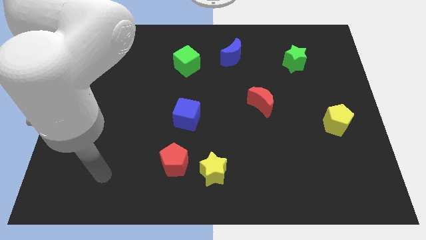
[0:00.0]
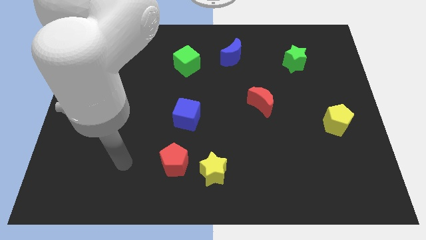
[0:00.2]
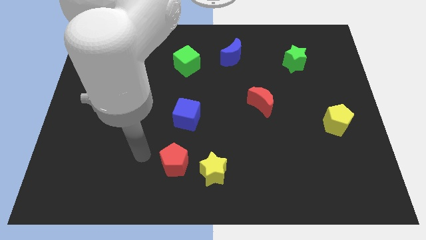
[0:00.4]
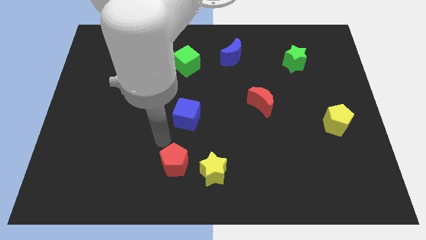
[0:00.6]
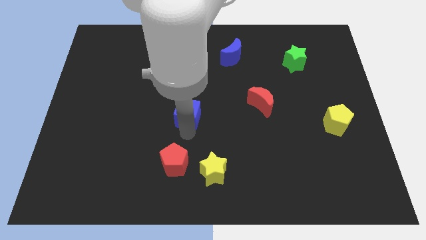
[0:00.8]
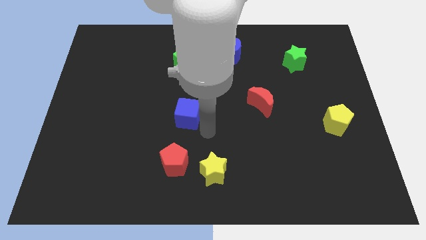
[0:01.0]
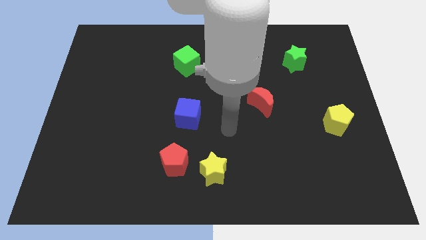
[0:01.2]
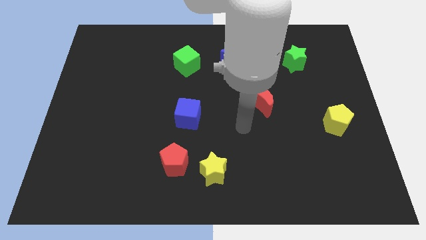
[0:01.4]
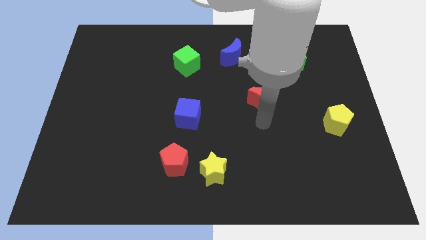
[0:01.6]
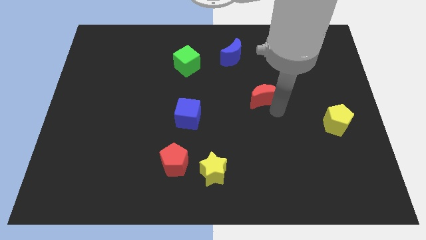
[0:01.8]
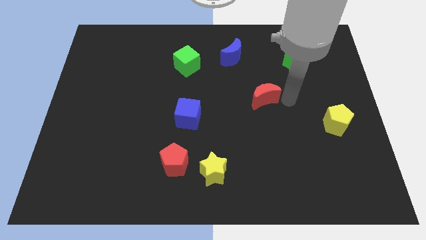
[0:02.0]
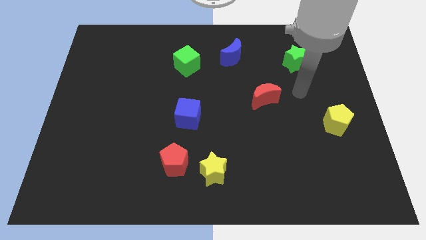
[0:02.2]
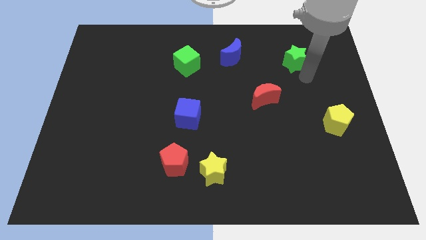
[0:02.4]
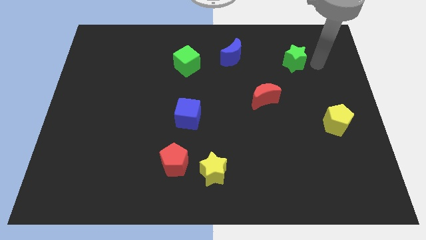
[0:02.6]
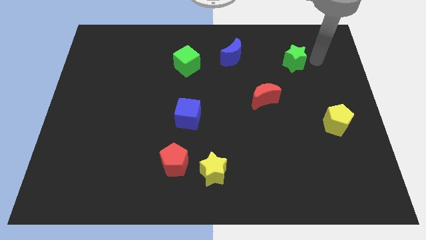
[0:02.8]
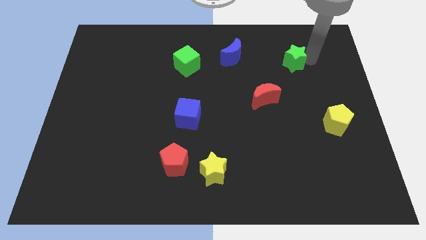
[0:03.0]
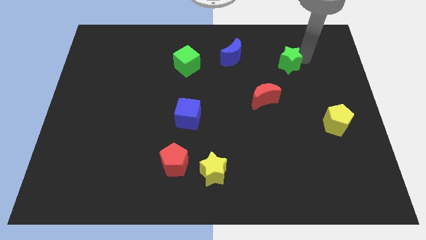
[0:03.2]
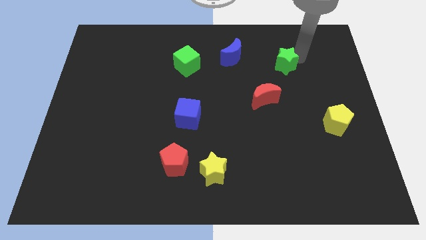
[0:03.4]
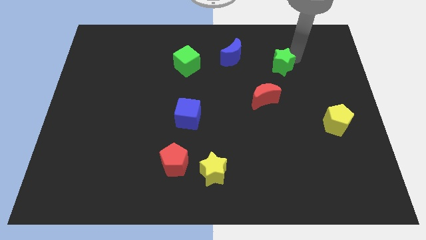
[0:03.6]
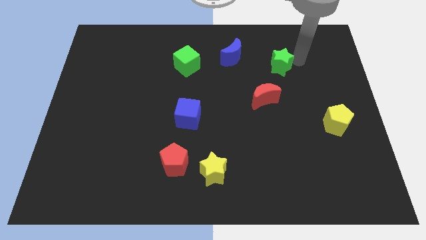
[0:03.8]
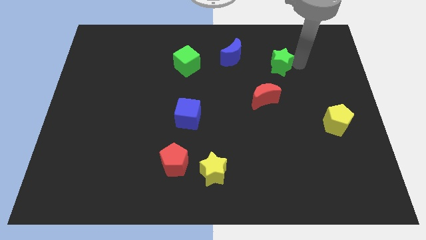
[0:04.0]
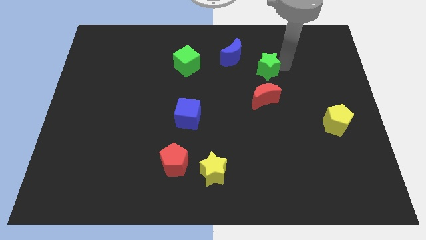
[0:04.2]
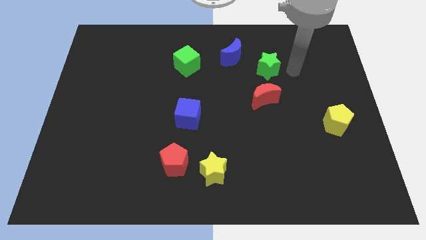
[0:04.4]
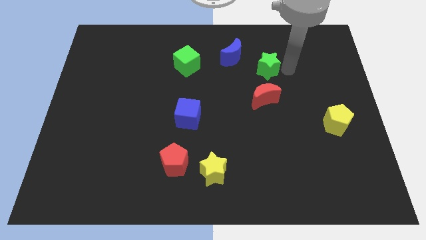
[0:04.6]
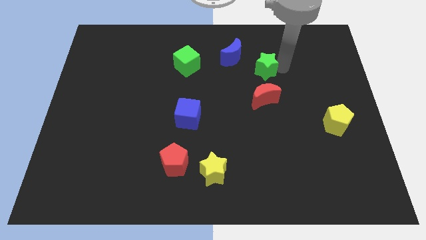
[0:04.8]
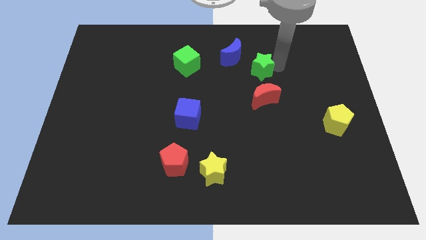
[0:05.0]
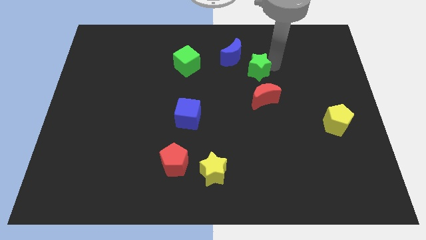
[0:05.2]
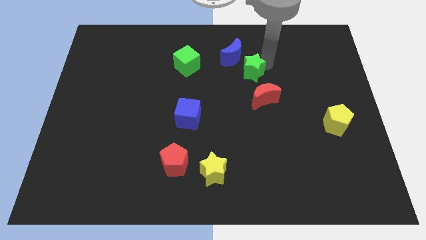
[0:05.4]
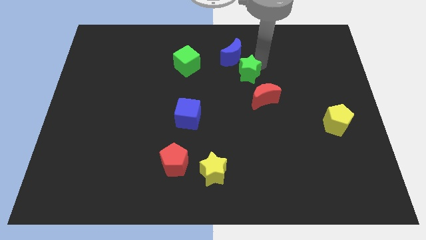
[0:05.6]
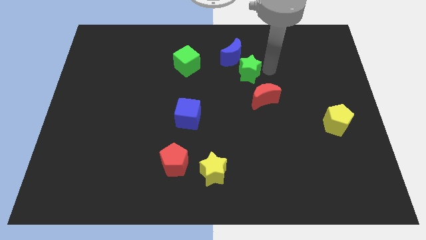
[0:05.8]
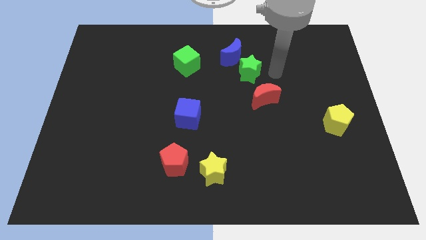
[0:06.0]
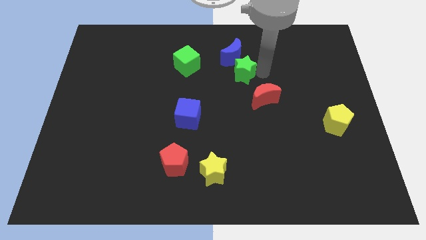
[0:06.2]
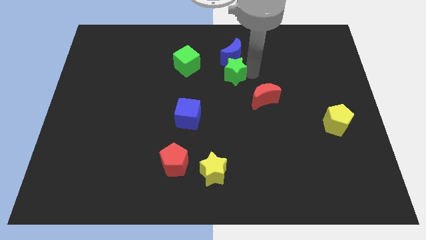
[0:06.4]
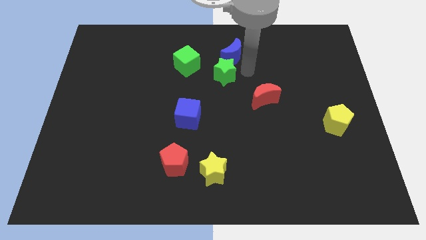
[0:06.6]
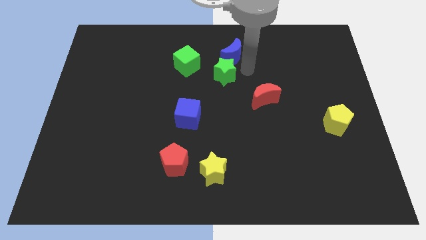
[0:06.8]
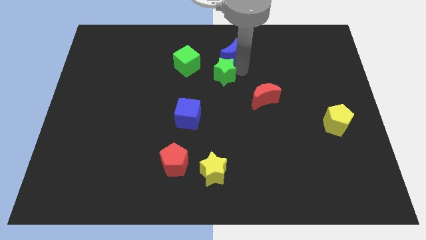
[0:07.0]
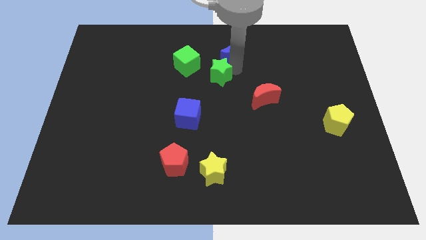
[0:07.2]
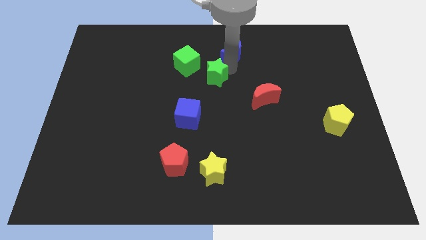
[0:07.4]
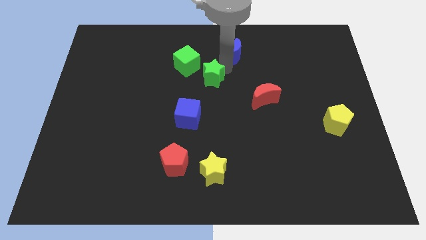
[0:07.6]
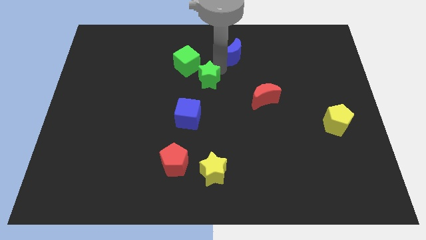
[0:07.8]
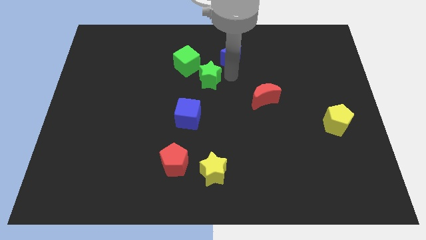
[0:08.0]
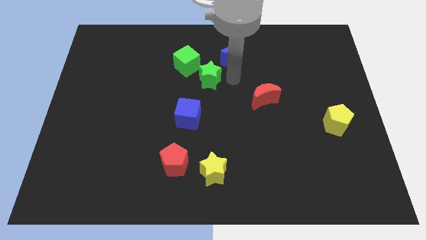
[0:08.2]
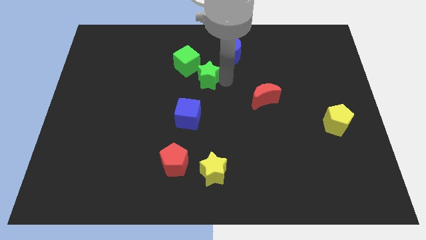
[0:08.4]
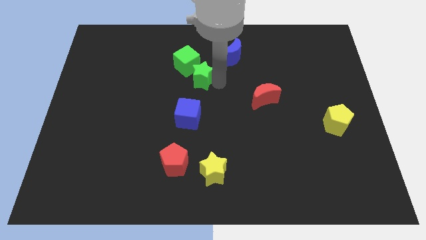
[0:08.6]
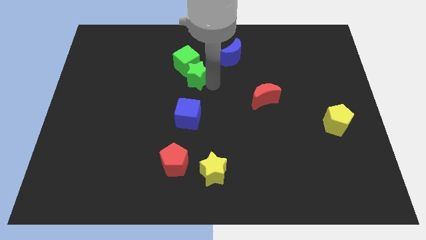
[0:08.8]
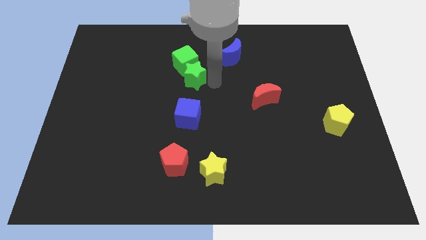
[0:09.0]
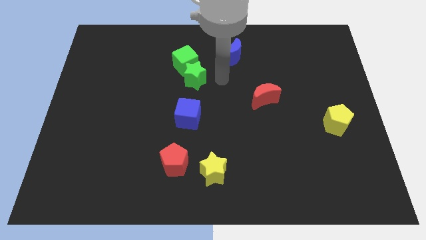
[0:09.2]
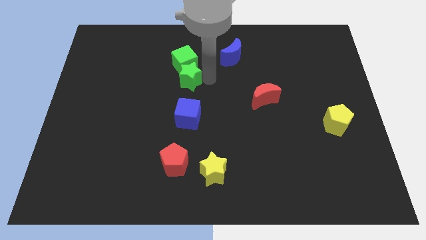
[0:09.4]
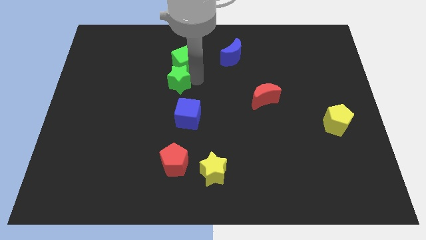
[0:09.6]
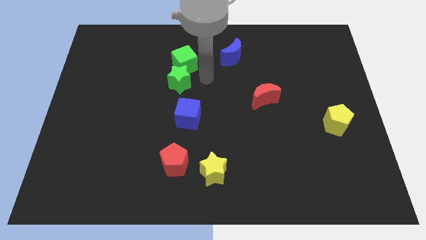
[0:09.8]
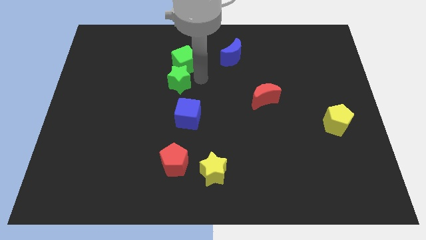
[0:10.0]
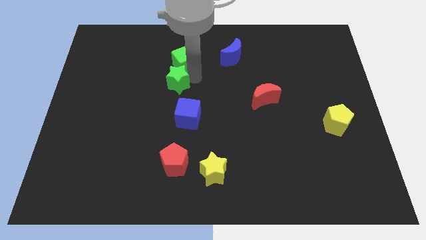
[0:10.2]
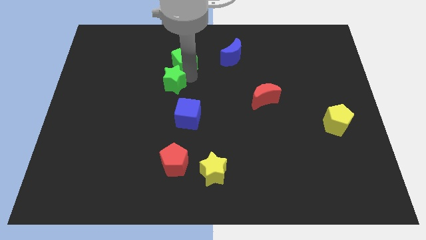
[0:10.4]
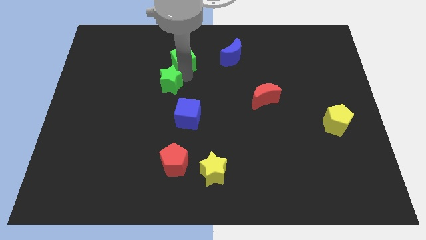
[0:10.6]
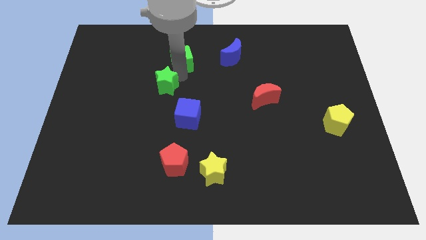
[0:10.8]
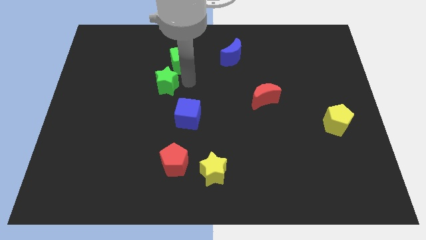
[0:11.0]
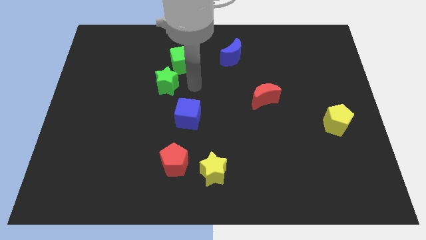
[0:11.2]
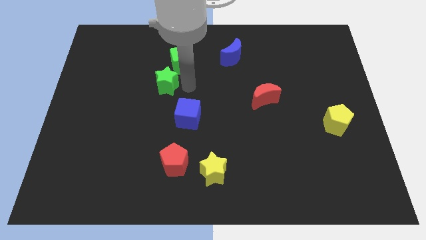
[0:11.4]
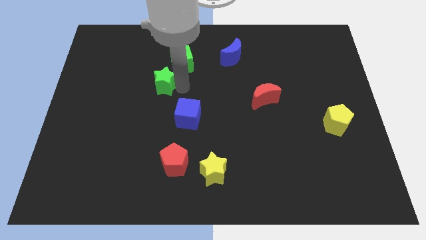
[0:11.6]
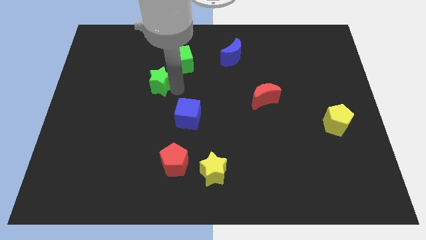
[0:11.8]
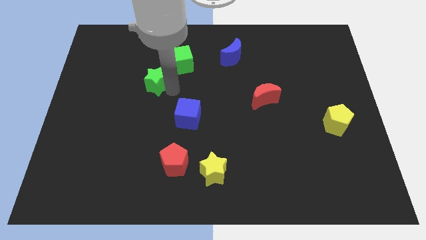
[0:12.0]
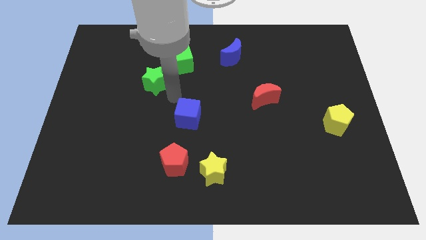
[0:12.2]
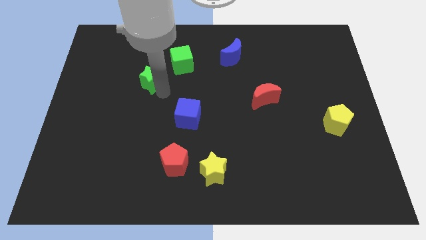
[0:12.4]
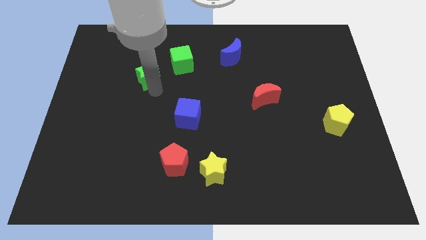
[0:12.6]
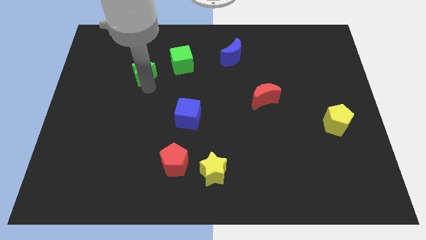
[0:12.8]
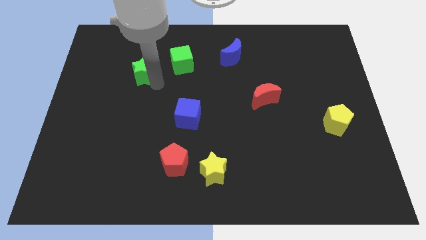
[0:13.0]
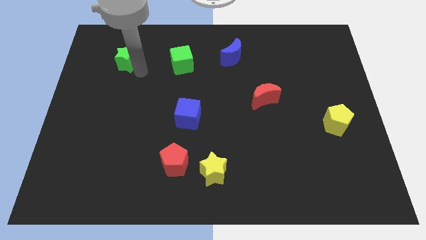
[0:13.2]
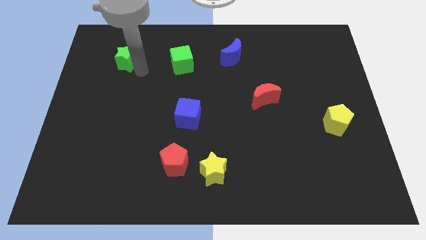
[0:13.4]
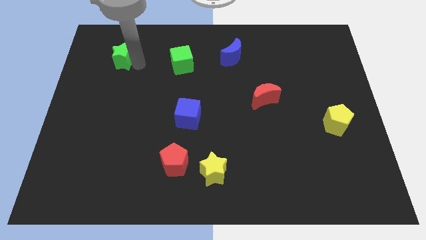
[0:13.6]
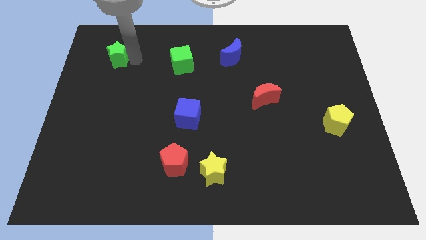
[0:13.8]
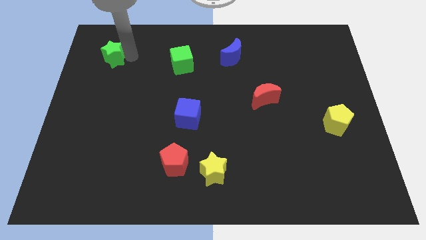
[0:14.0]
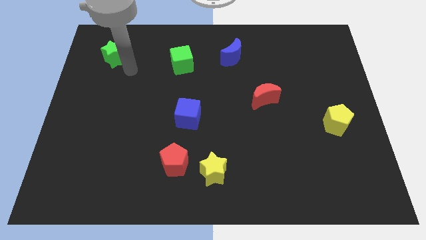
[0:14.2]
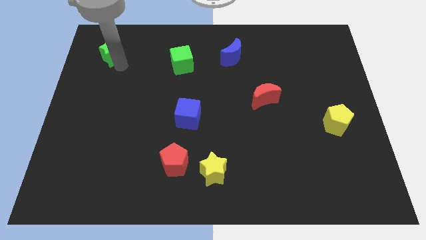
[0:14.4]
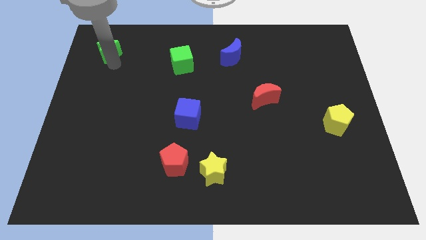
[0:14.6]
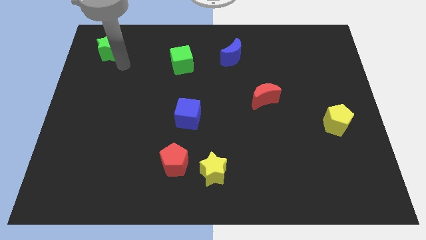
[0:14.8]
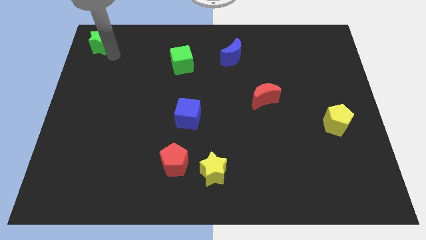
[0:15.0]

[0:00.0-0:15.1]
push the green star to the top left corner
